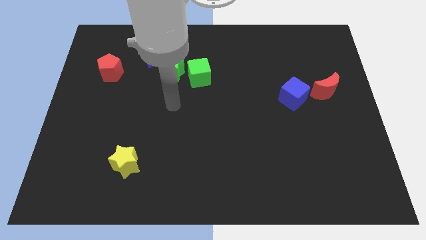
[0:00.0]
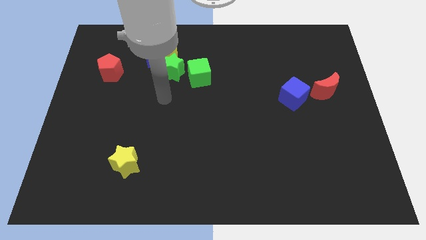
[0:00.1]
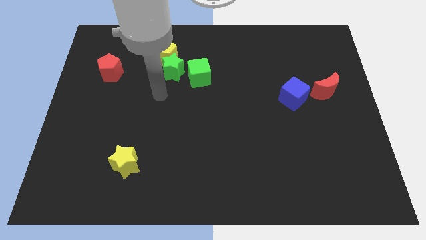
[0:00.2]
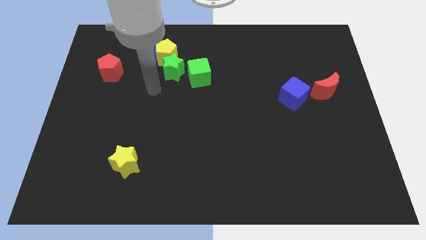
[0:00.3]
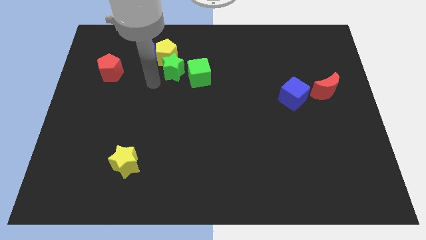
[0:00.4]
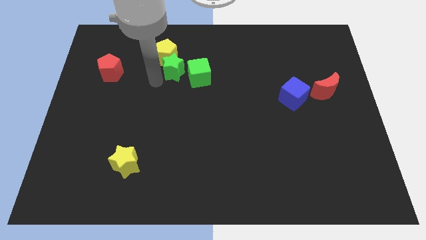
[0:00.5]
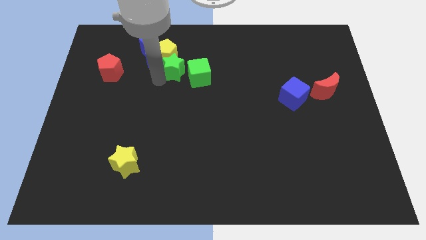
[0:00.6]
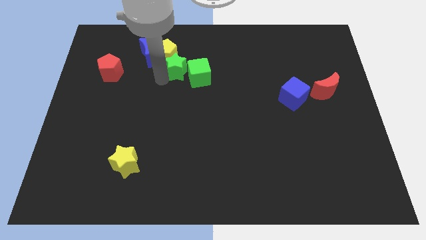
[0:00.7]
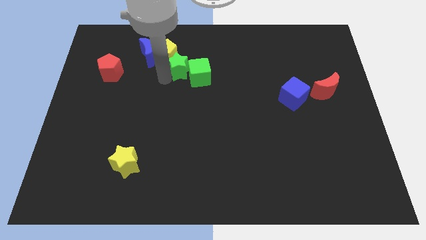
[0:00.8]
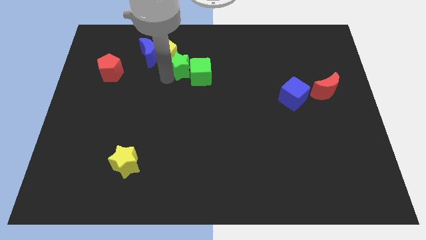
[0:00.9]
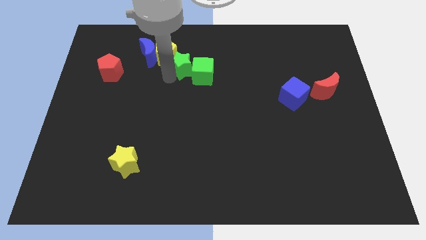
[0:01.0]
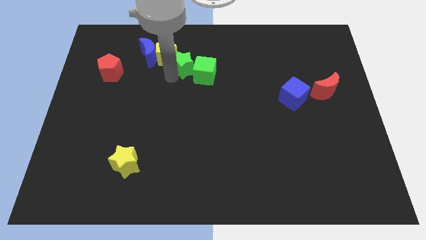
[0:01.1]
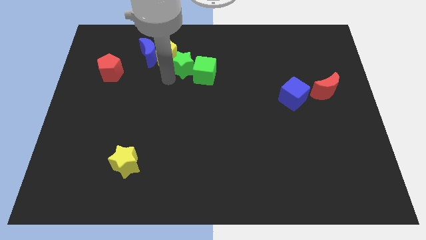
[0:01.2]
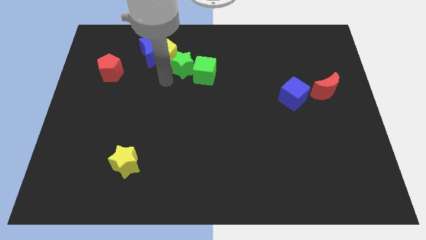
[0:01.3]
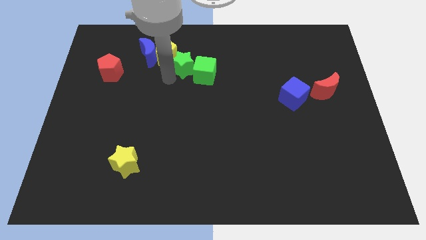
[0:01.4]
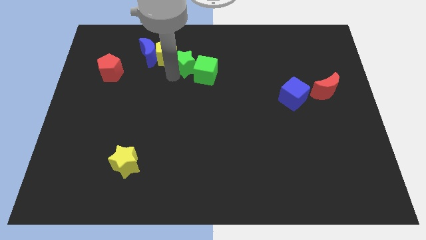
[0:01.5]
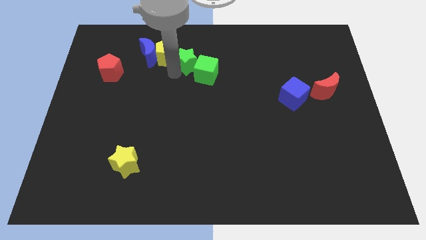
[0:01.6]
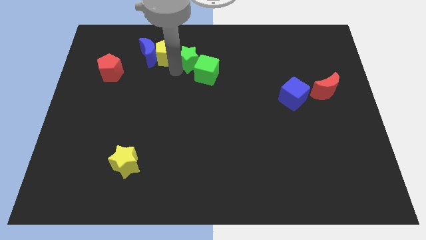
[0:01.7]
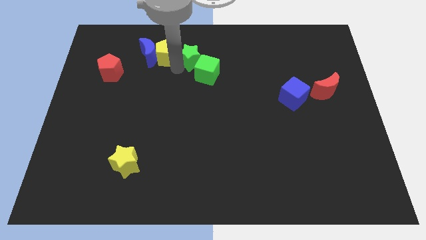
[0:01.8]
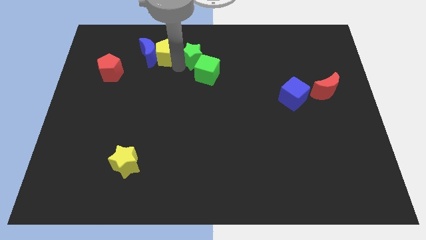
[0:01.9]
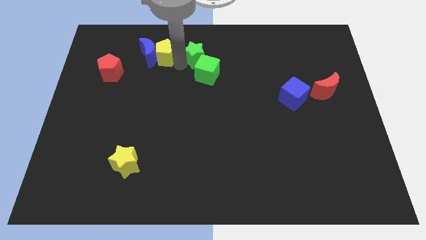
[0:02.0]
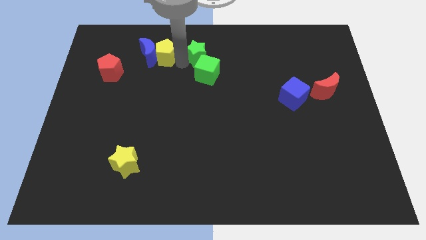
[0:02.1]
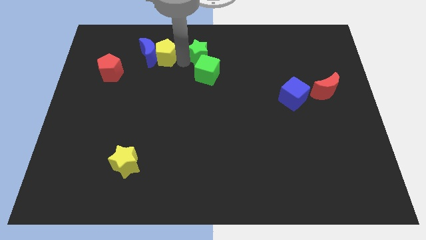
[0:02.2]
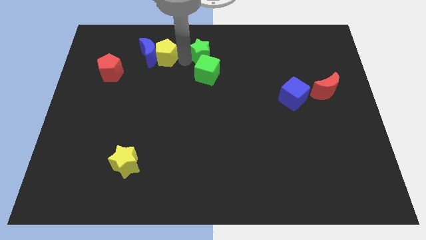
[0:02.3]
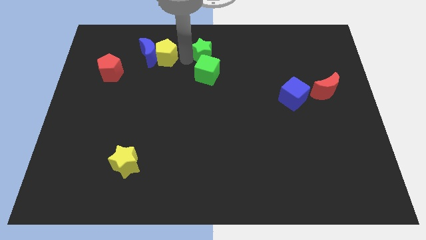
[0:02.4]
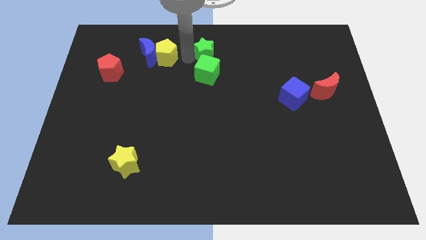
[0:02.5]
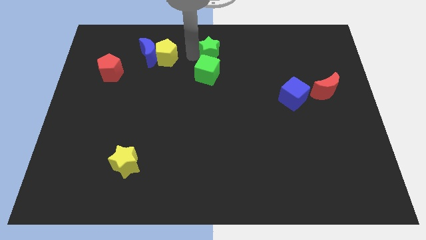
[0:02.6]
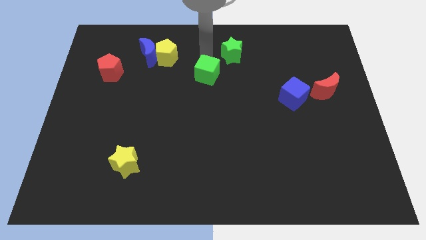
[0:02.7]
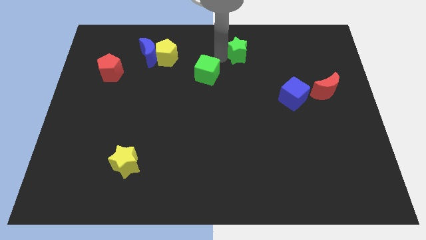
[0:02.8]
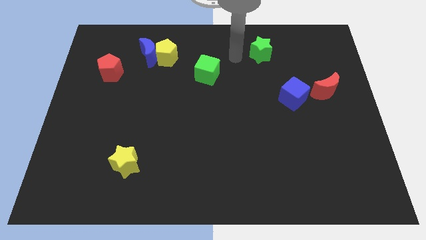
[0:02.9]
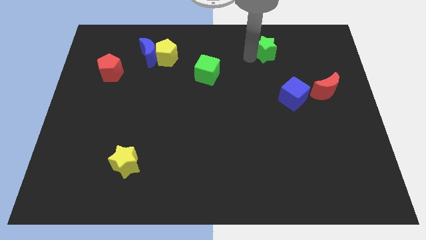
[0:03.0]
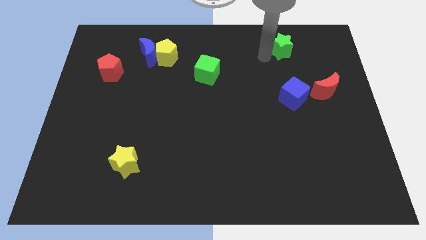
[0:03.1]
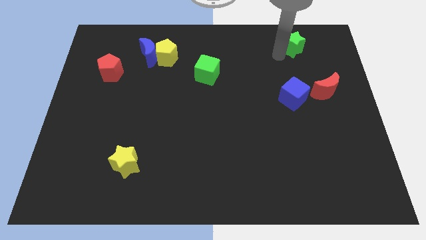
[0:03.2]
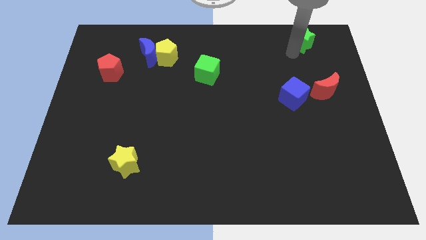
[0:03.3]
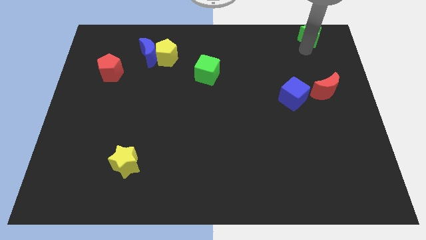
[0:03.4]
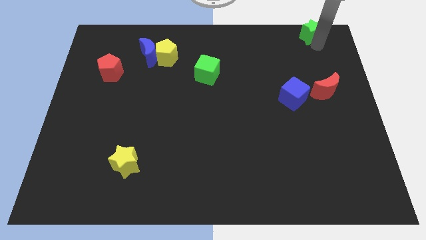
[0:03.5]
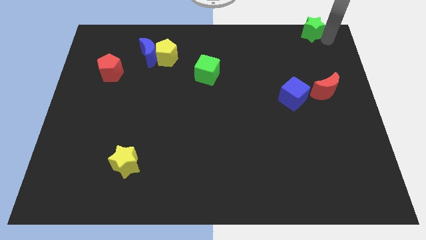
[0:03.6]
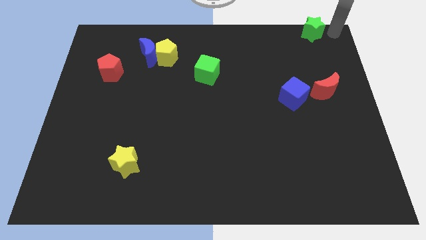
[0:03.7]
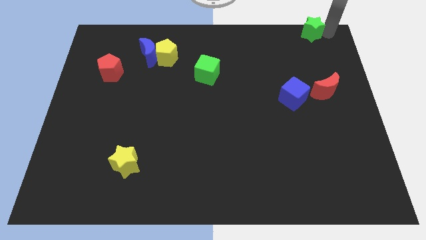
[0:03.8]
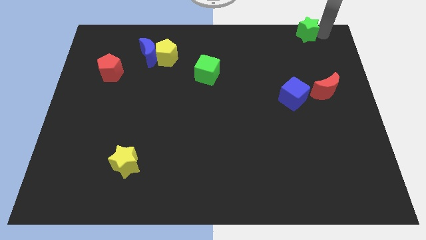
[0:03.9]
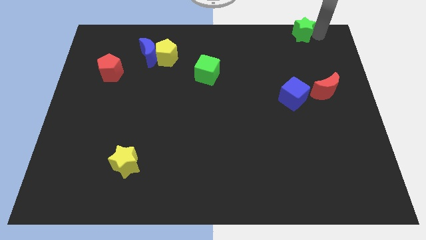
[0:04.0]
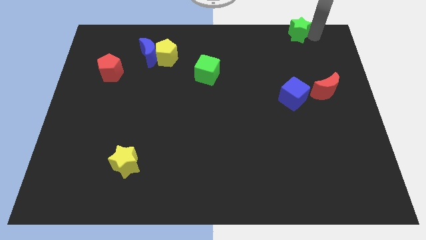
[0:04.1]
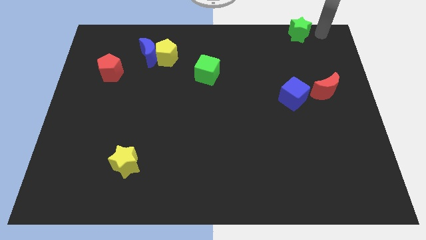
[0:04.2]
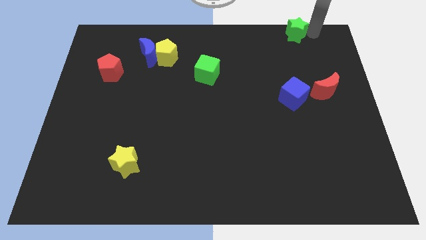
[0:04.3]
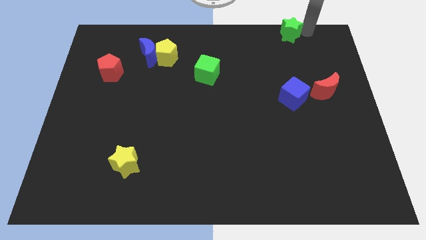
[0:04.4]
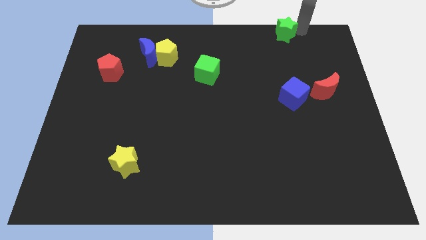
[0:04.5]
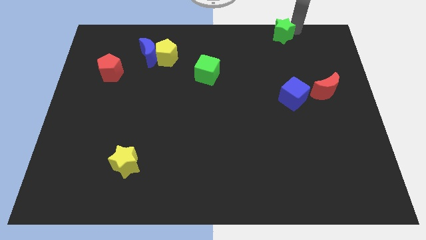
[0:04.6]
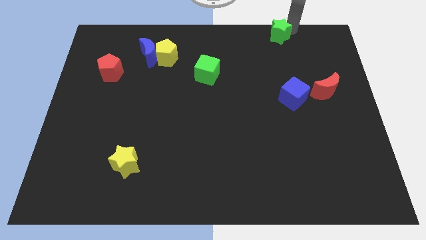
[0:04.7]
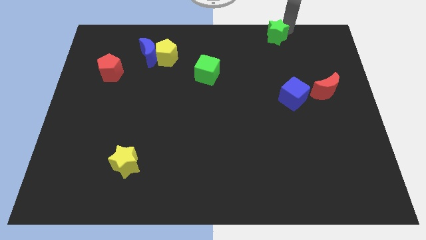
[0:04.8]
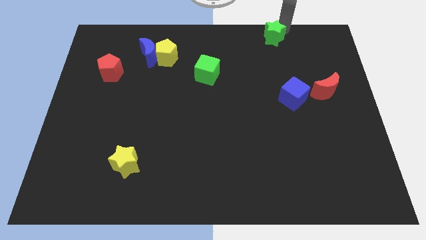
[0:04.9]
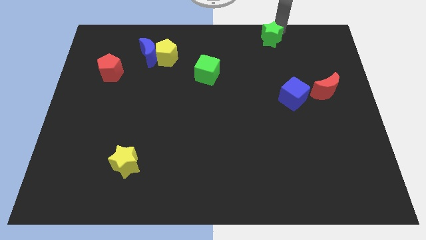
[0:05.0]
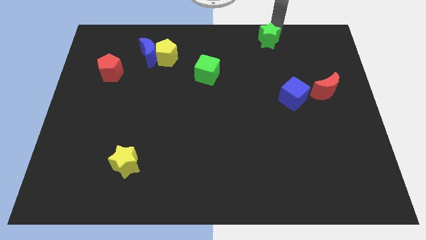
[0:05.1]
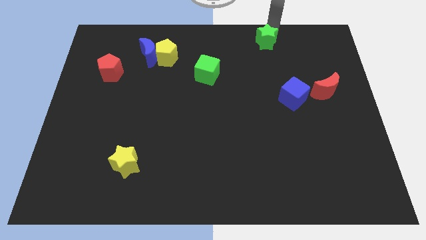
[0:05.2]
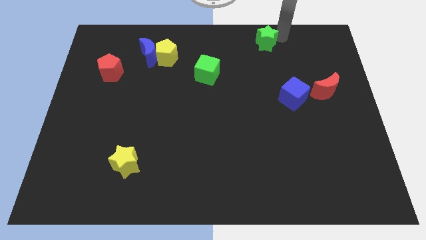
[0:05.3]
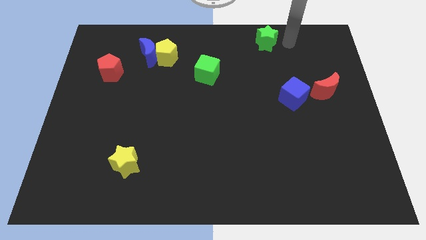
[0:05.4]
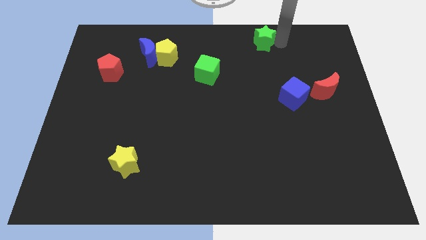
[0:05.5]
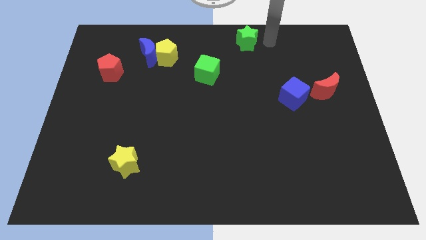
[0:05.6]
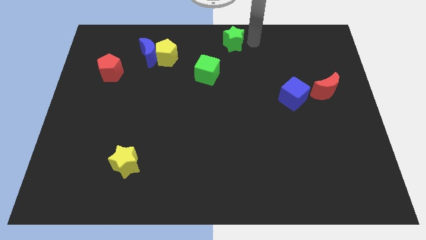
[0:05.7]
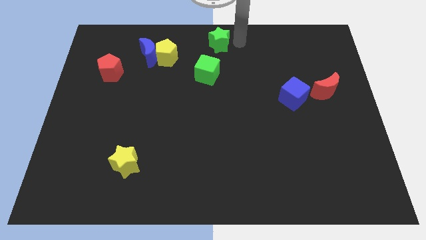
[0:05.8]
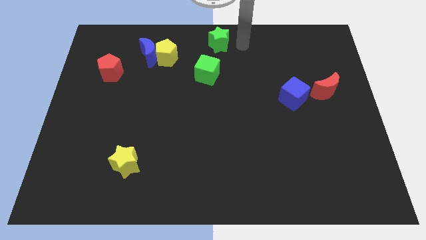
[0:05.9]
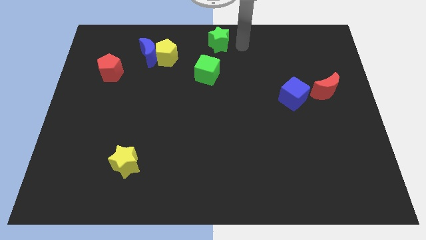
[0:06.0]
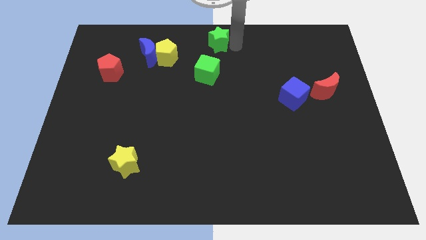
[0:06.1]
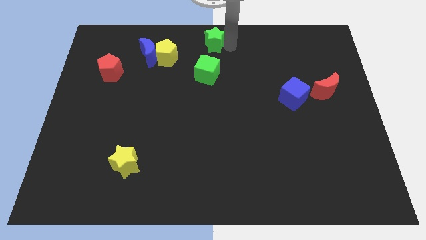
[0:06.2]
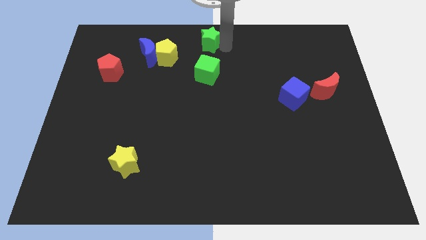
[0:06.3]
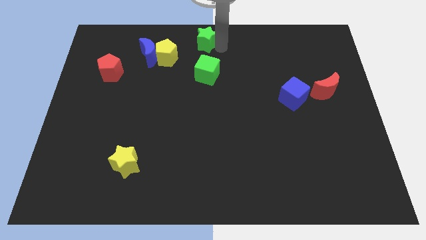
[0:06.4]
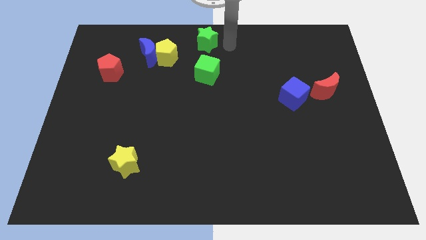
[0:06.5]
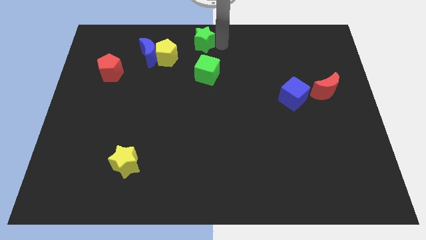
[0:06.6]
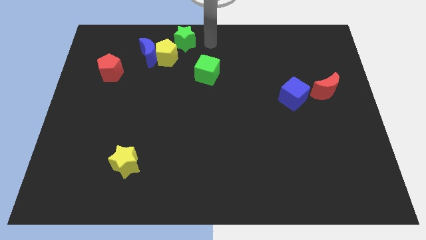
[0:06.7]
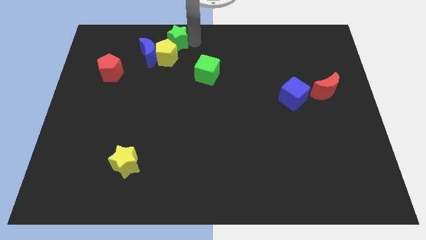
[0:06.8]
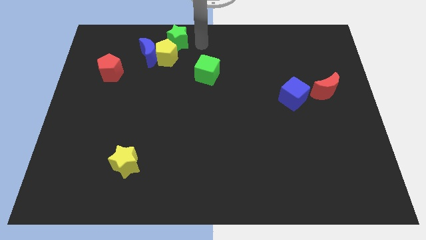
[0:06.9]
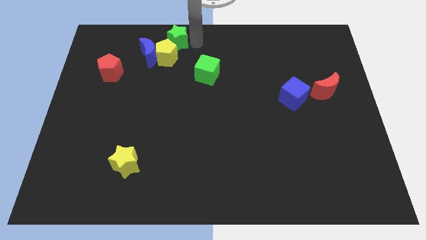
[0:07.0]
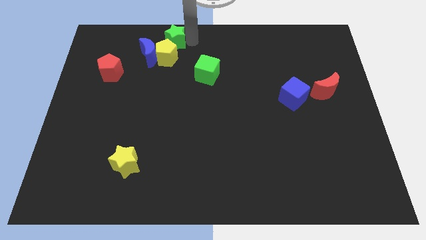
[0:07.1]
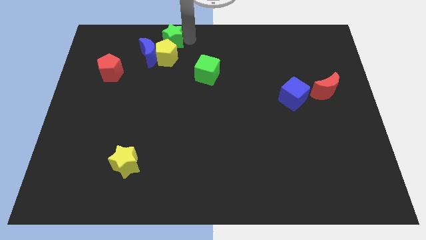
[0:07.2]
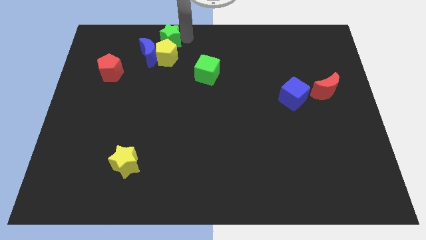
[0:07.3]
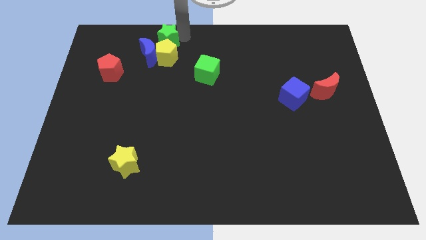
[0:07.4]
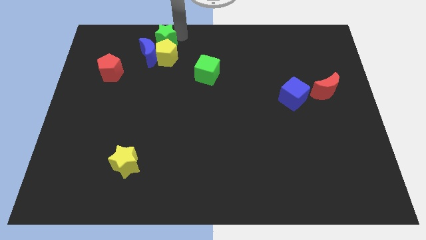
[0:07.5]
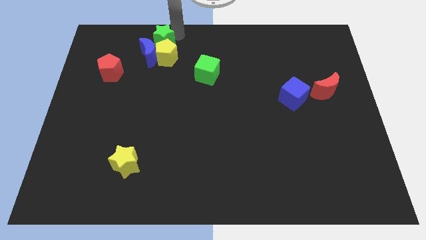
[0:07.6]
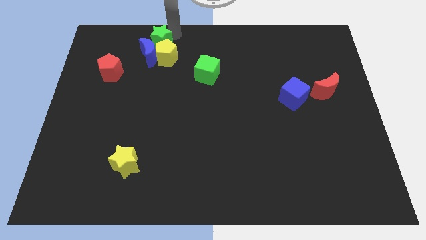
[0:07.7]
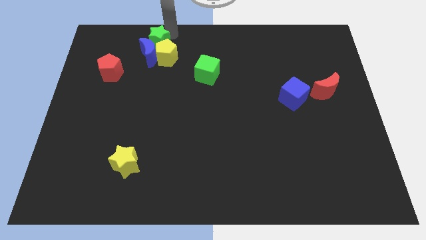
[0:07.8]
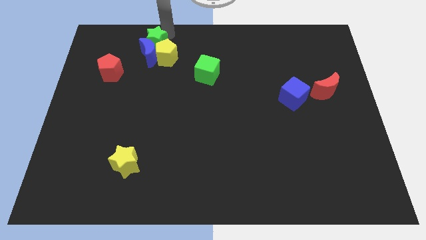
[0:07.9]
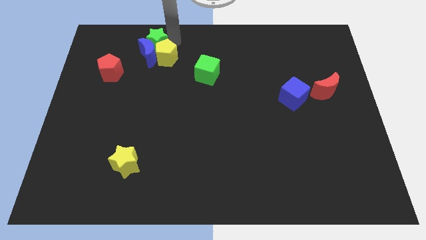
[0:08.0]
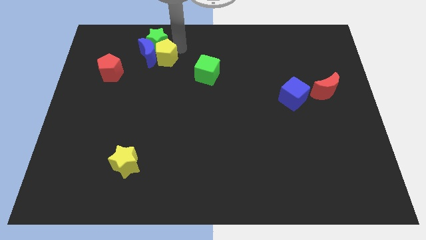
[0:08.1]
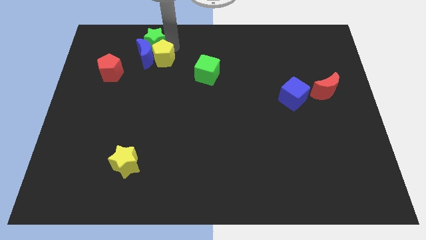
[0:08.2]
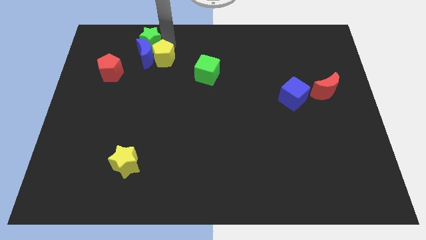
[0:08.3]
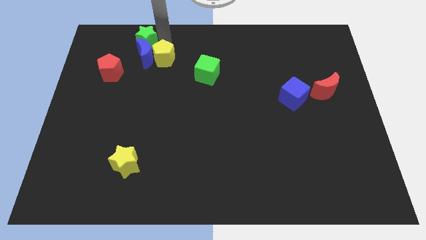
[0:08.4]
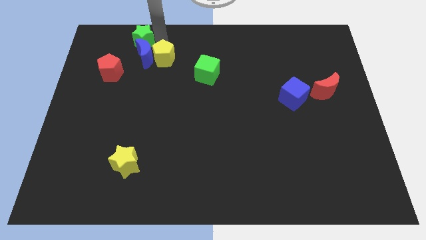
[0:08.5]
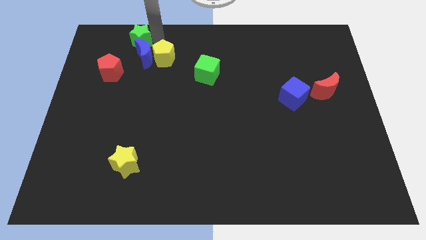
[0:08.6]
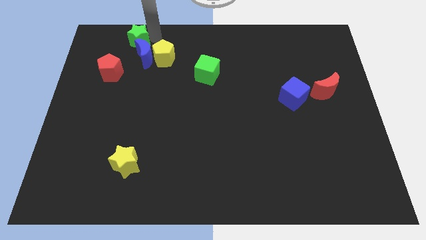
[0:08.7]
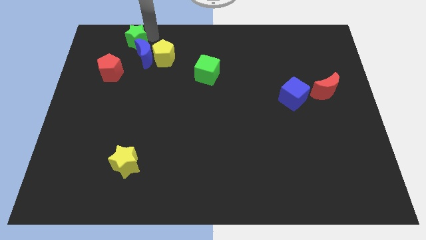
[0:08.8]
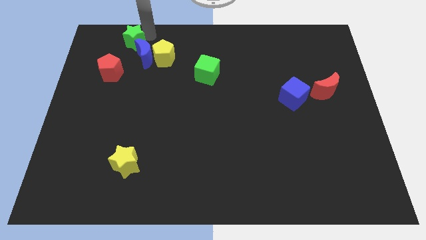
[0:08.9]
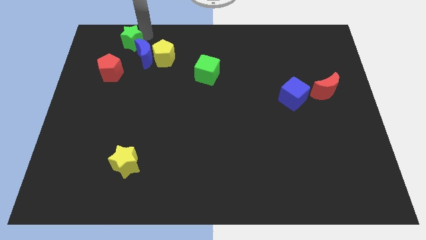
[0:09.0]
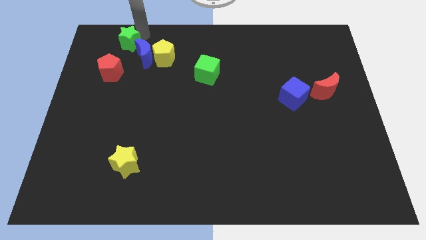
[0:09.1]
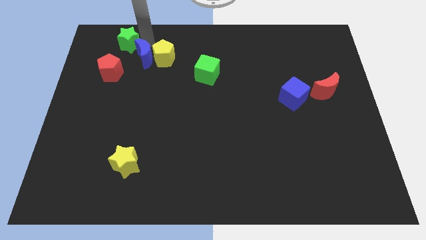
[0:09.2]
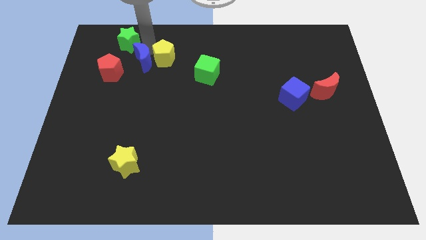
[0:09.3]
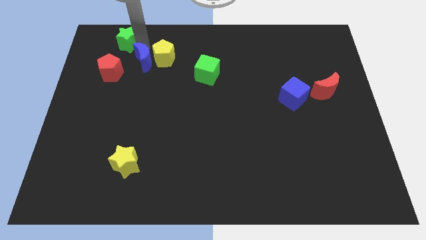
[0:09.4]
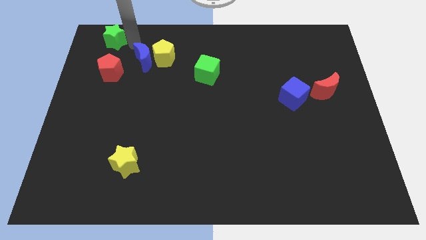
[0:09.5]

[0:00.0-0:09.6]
push the green star to the upper left corner
